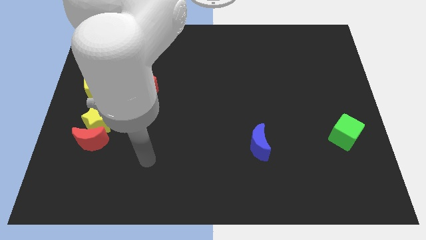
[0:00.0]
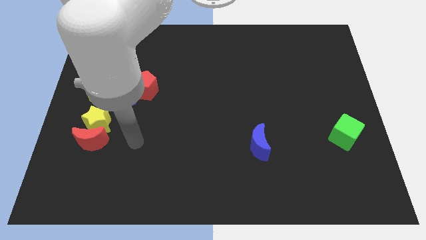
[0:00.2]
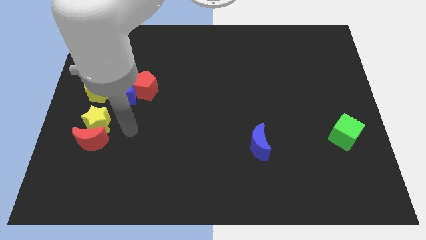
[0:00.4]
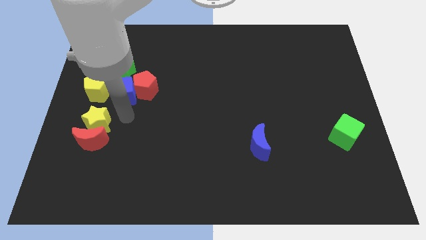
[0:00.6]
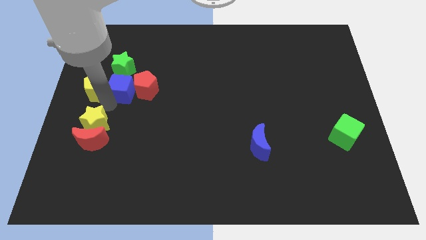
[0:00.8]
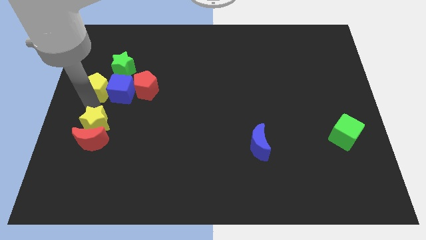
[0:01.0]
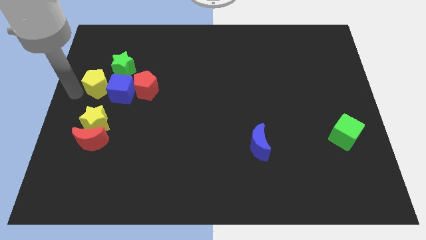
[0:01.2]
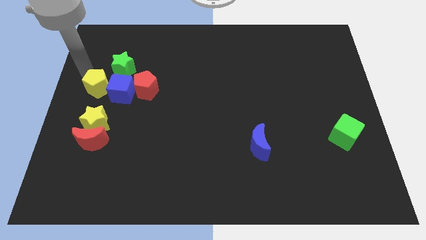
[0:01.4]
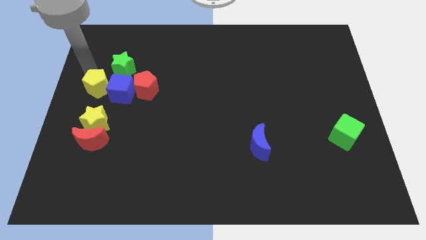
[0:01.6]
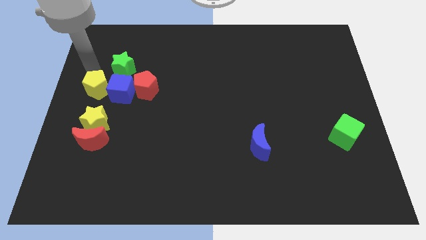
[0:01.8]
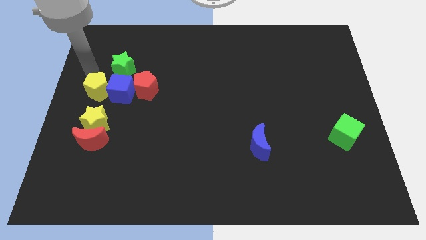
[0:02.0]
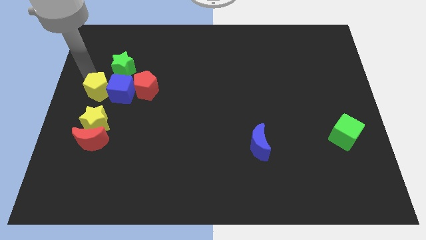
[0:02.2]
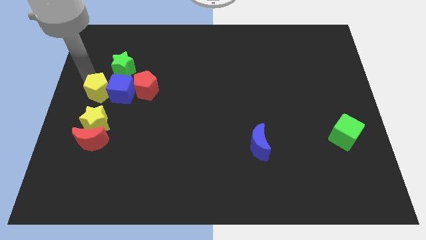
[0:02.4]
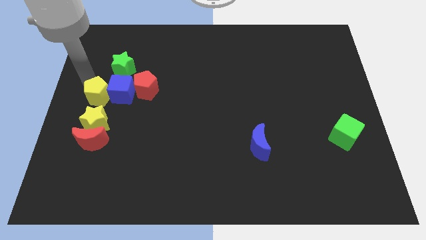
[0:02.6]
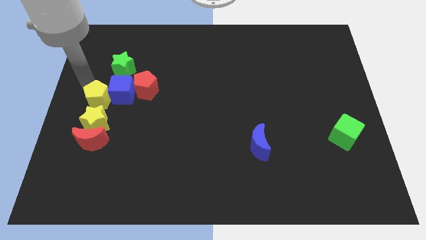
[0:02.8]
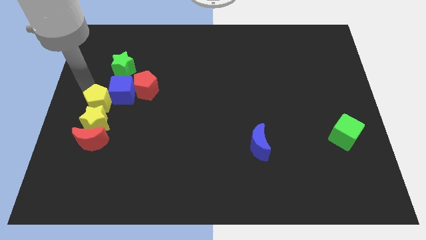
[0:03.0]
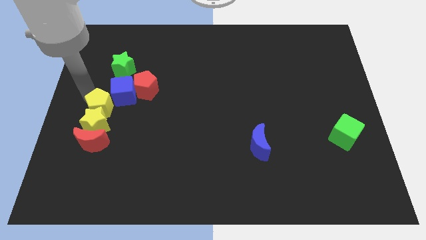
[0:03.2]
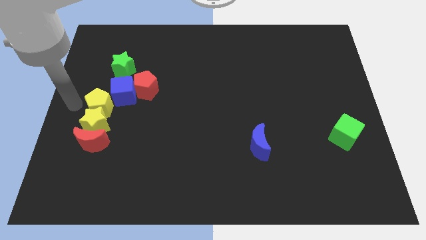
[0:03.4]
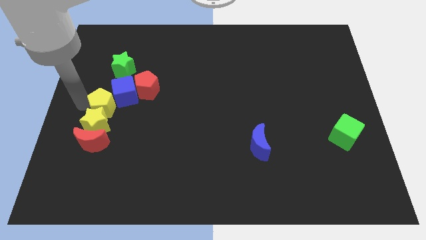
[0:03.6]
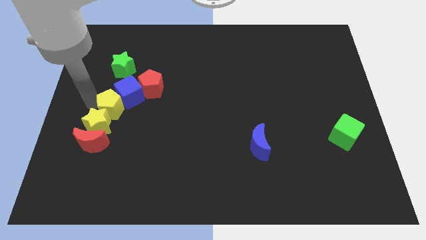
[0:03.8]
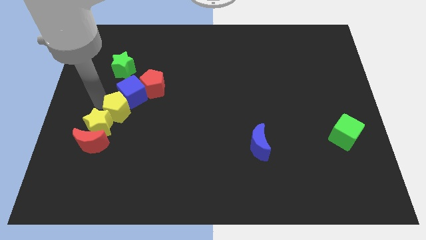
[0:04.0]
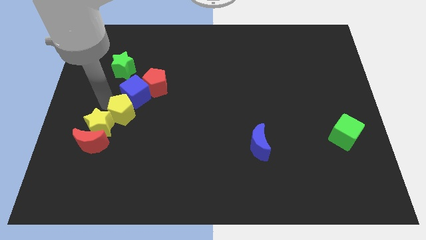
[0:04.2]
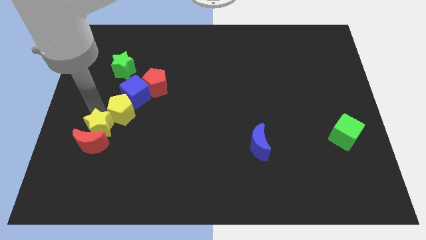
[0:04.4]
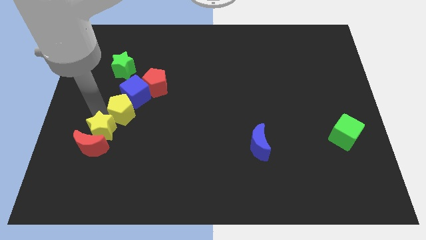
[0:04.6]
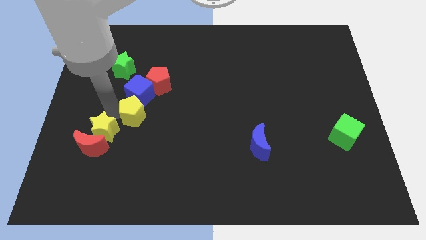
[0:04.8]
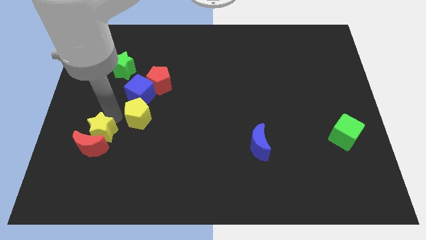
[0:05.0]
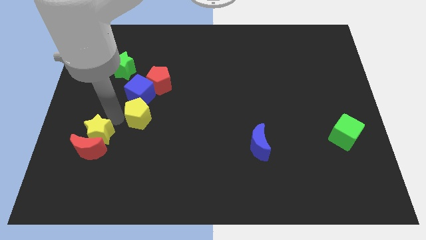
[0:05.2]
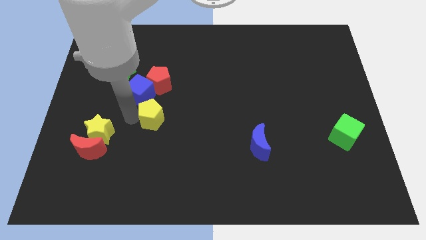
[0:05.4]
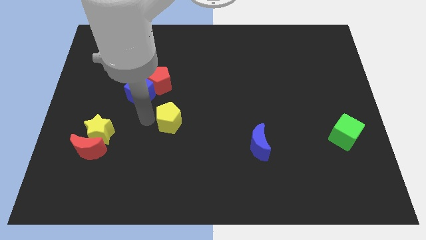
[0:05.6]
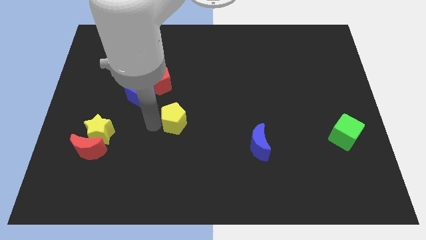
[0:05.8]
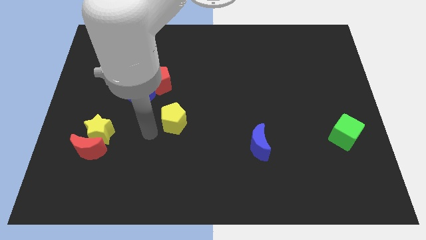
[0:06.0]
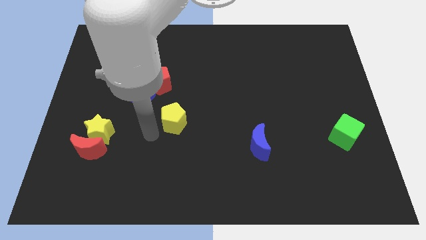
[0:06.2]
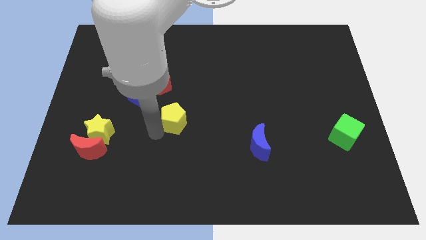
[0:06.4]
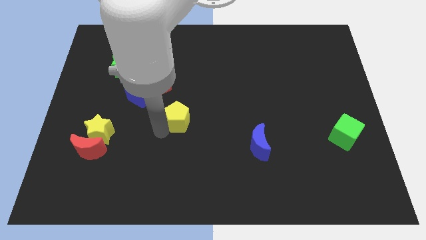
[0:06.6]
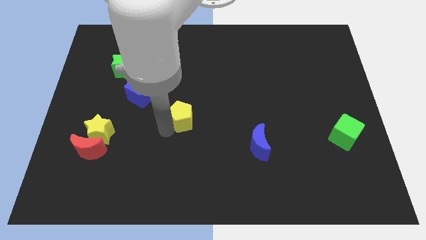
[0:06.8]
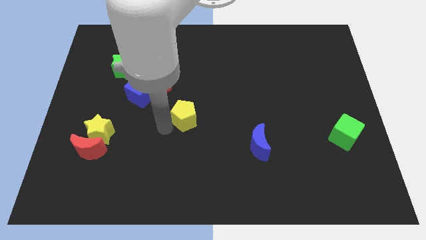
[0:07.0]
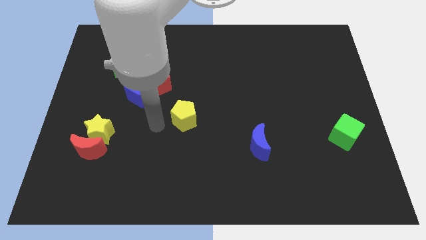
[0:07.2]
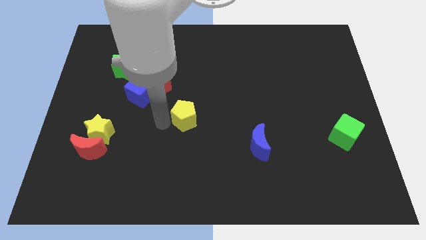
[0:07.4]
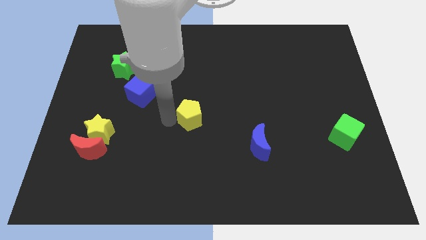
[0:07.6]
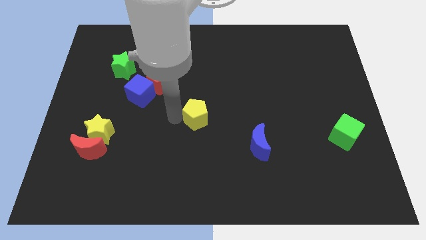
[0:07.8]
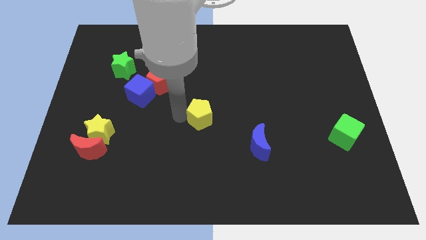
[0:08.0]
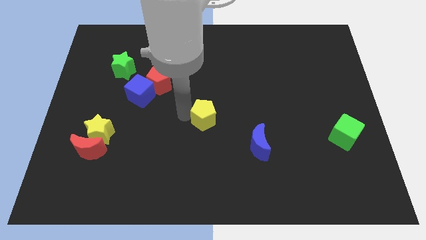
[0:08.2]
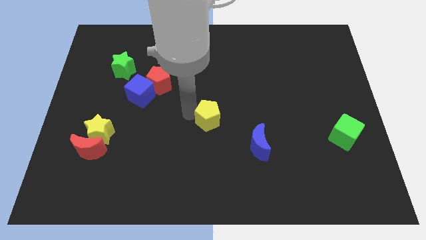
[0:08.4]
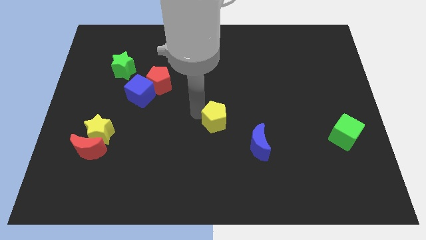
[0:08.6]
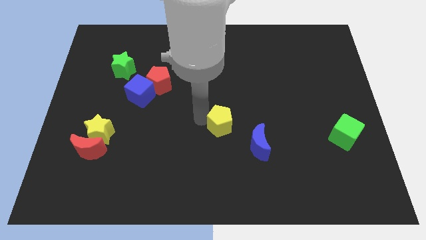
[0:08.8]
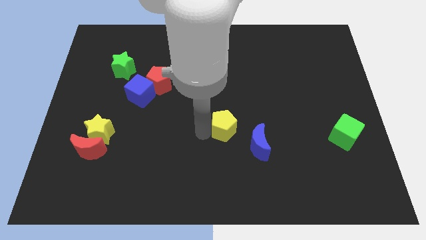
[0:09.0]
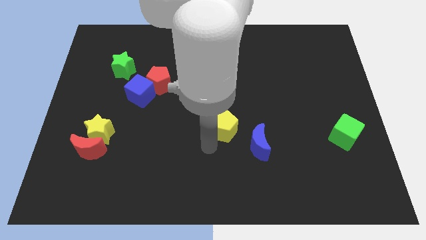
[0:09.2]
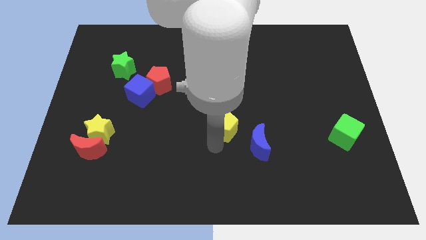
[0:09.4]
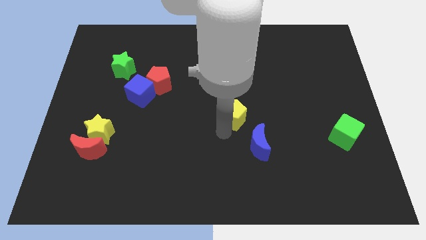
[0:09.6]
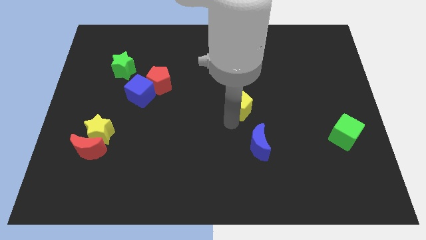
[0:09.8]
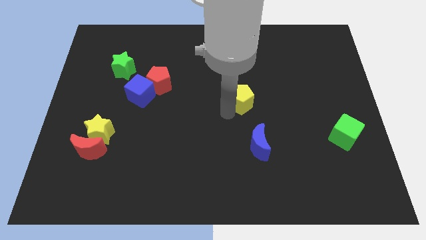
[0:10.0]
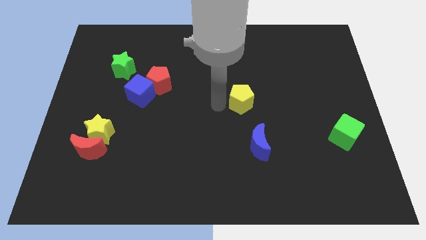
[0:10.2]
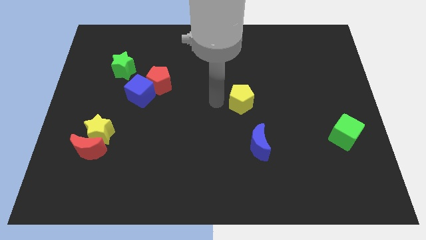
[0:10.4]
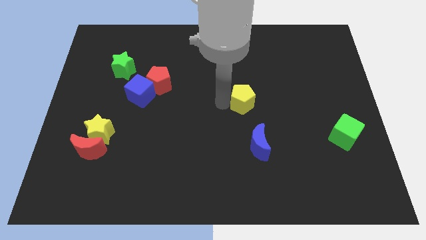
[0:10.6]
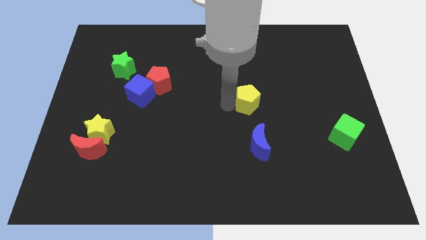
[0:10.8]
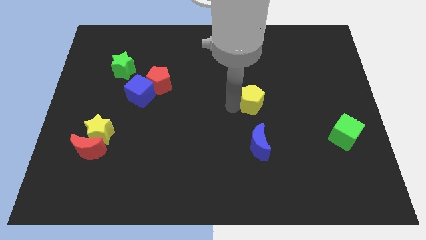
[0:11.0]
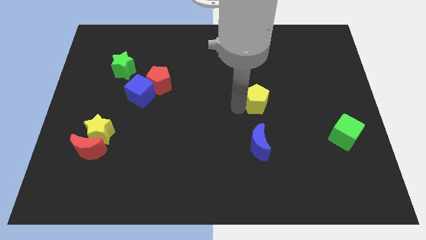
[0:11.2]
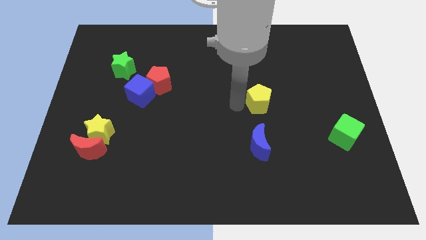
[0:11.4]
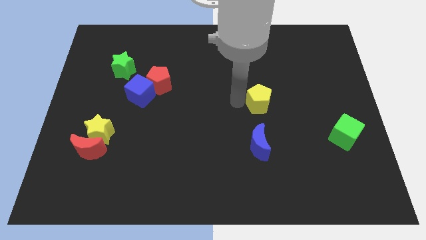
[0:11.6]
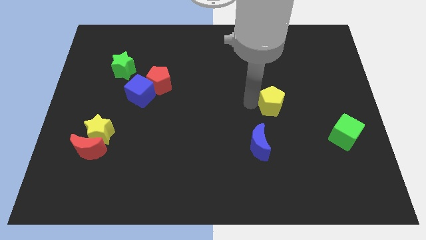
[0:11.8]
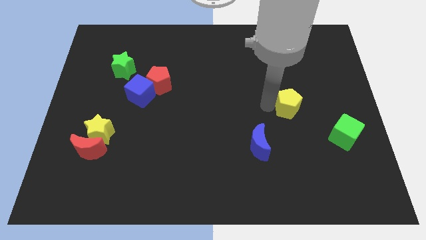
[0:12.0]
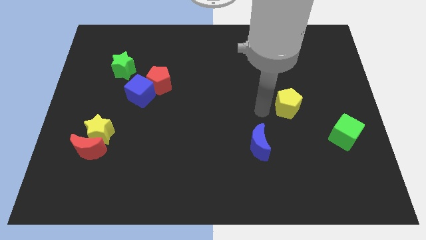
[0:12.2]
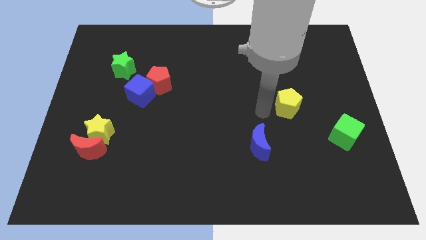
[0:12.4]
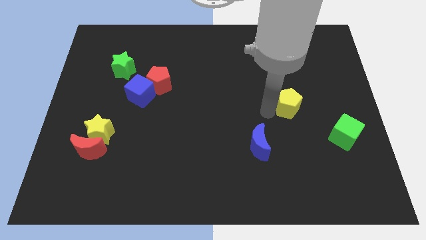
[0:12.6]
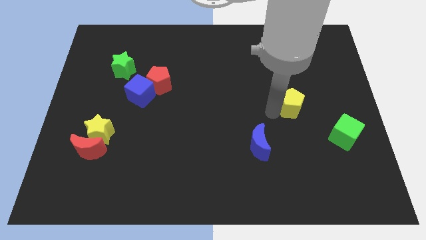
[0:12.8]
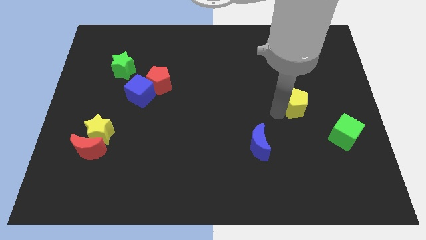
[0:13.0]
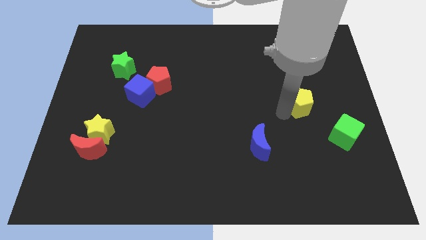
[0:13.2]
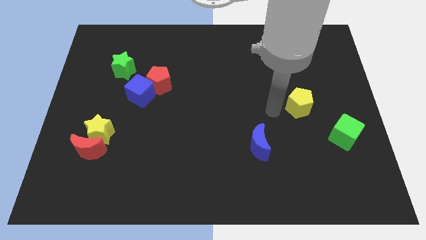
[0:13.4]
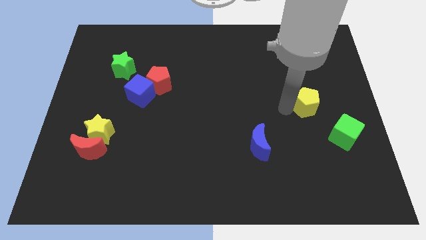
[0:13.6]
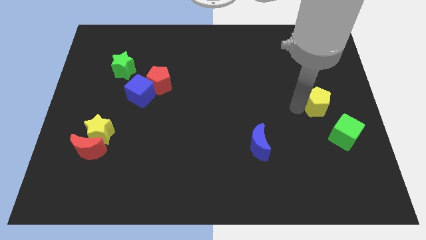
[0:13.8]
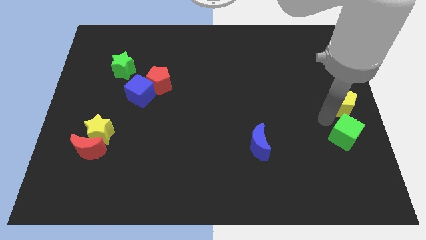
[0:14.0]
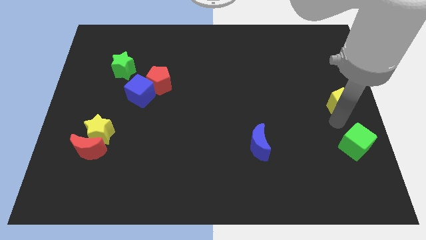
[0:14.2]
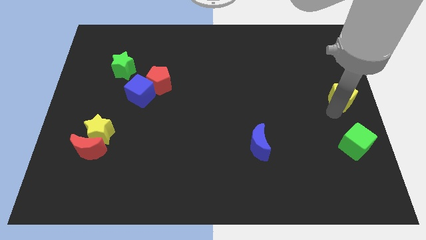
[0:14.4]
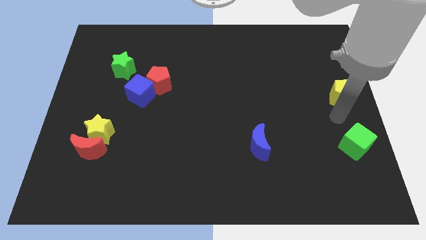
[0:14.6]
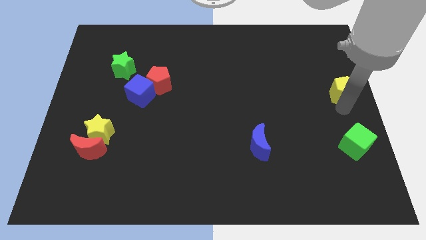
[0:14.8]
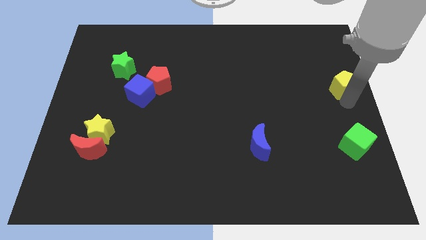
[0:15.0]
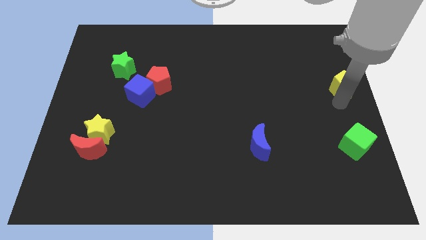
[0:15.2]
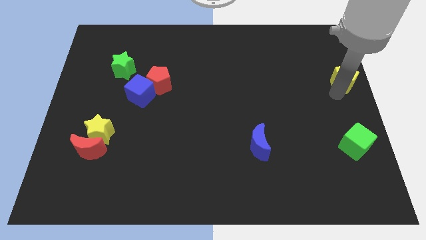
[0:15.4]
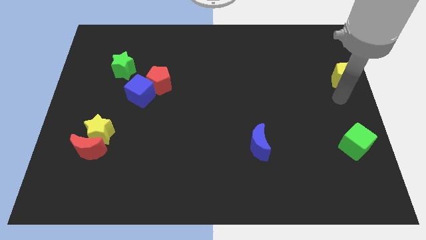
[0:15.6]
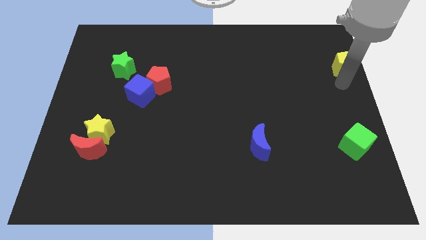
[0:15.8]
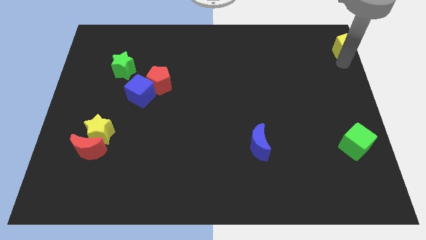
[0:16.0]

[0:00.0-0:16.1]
put the yellow pentagon to the top right of the board

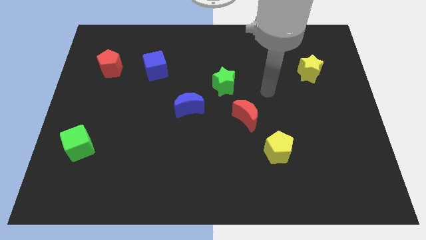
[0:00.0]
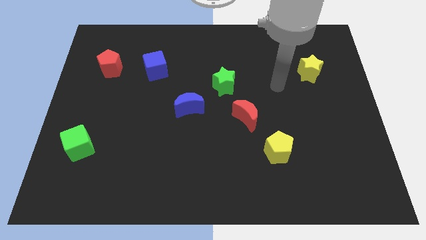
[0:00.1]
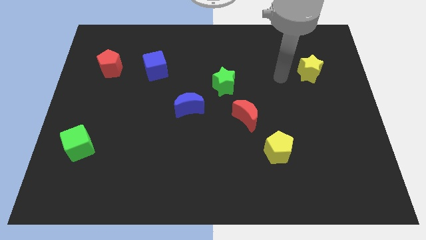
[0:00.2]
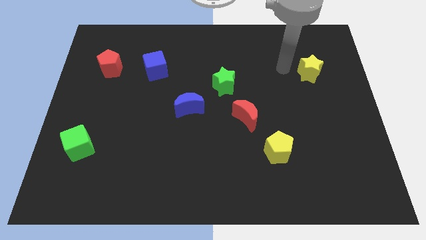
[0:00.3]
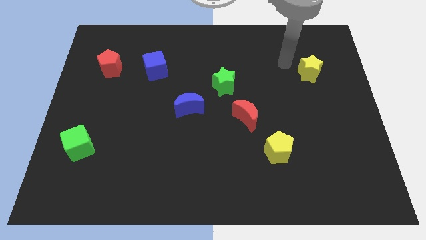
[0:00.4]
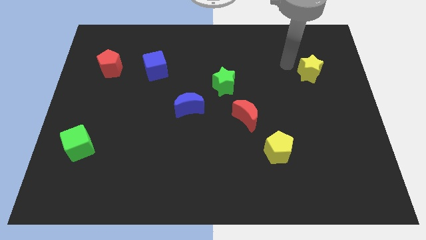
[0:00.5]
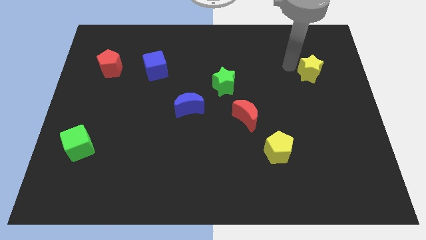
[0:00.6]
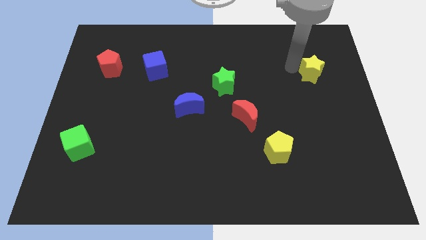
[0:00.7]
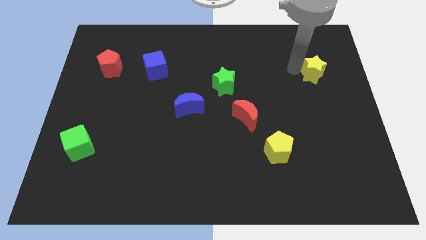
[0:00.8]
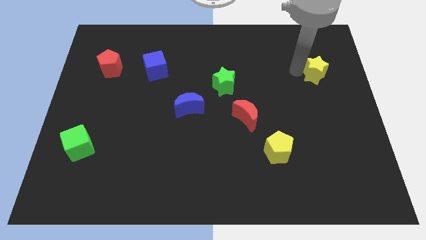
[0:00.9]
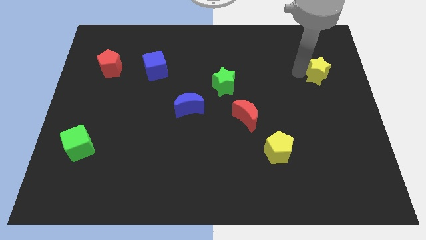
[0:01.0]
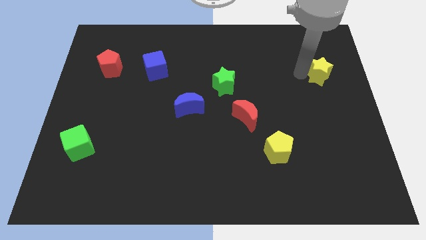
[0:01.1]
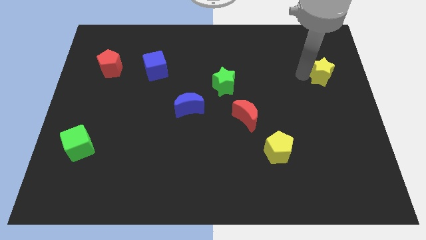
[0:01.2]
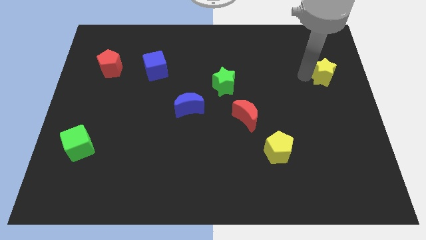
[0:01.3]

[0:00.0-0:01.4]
slide the yellow star to the center right
